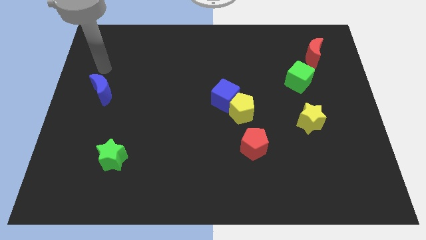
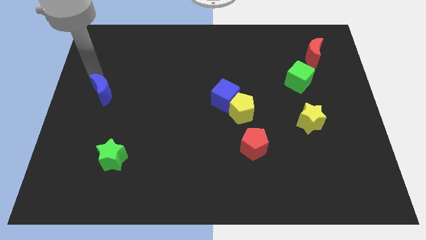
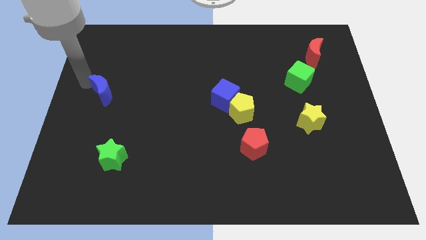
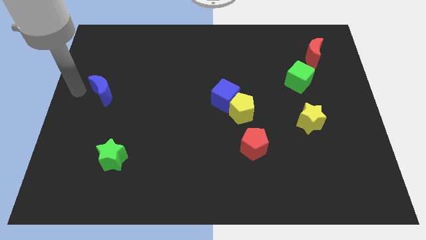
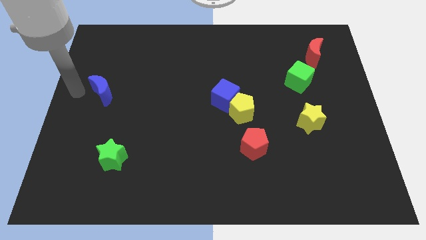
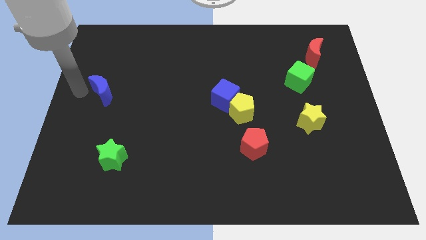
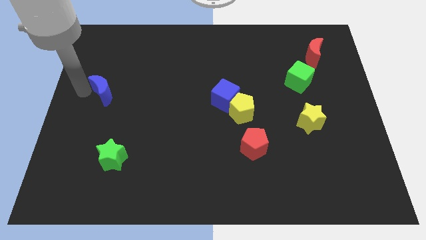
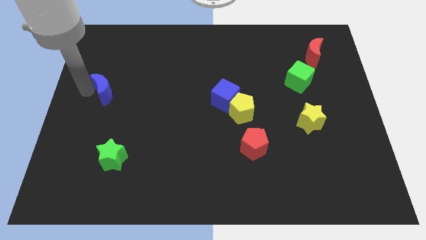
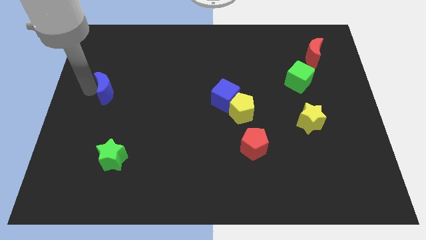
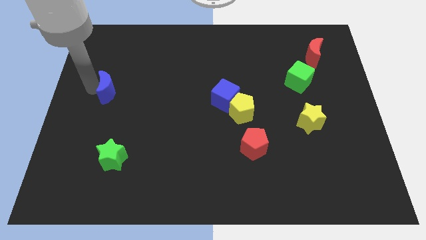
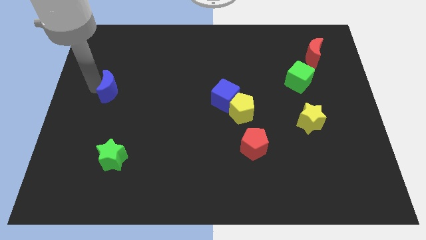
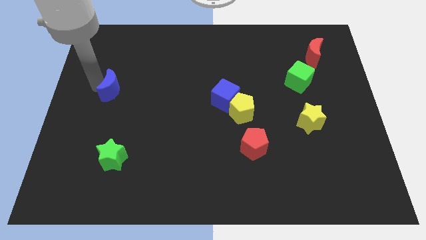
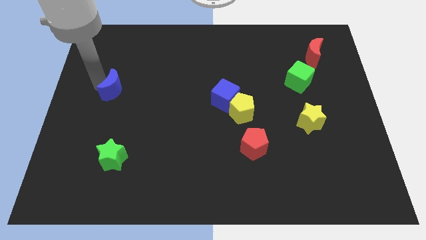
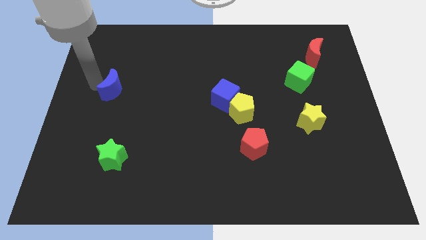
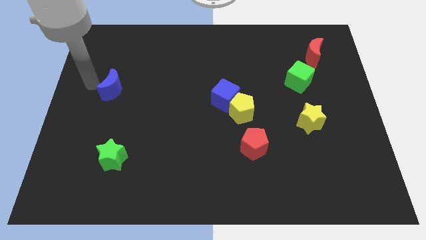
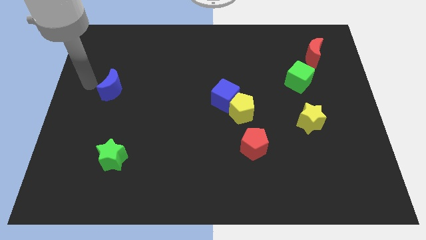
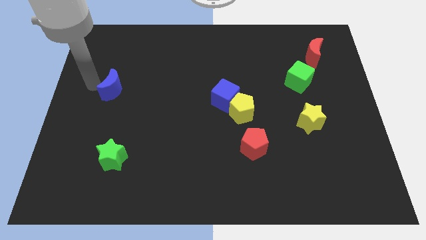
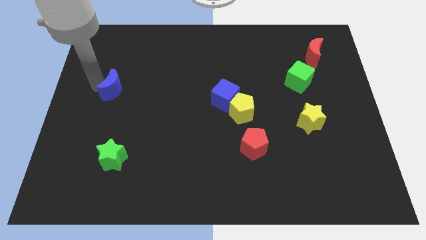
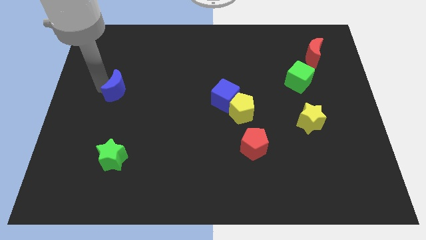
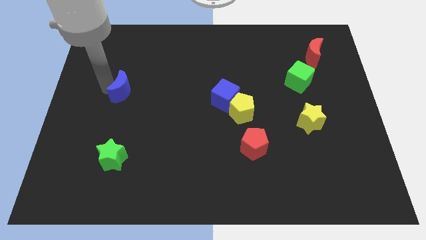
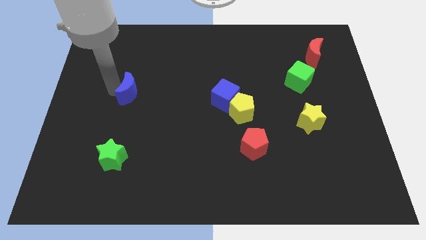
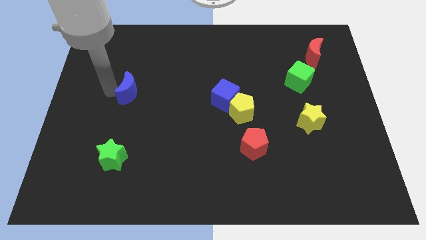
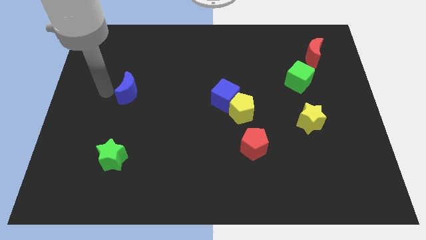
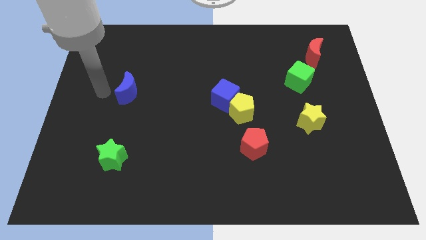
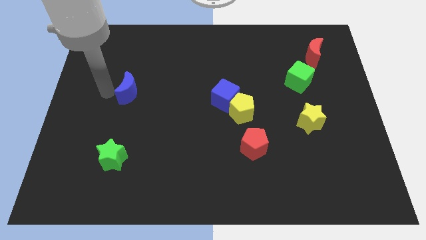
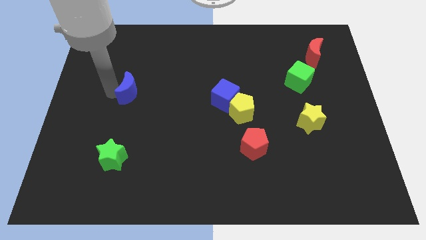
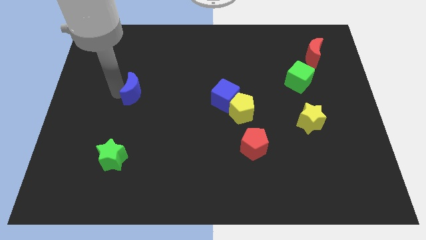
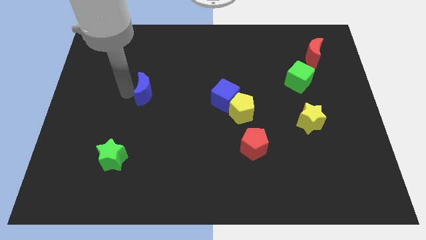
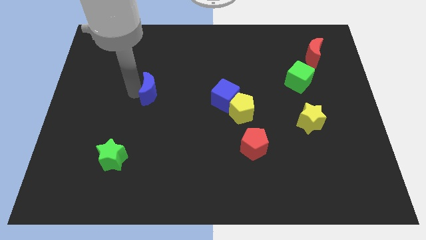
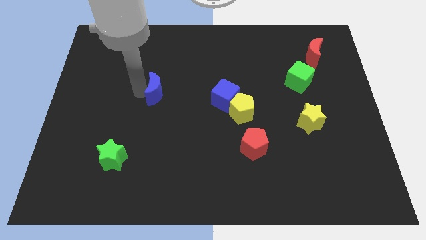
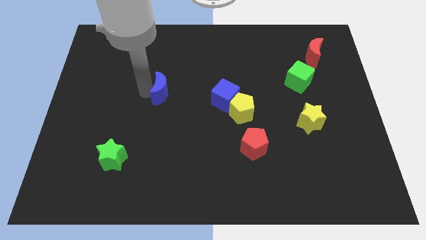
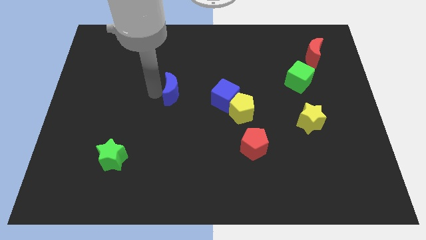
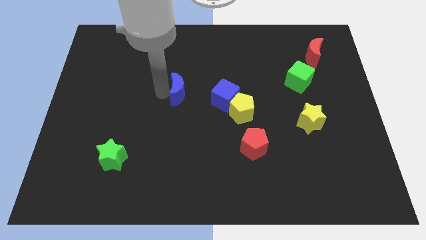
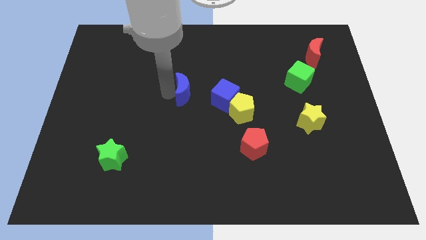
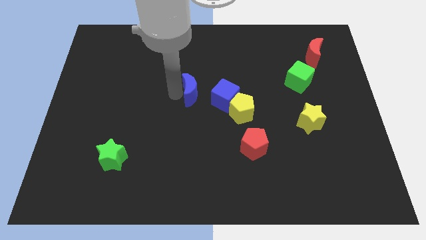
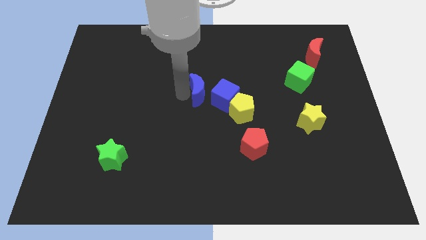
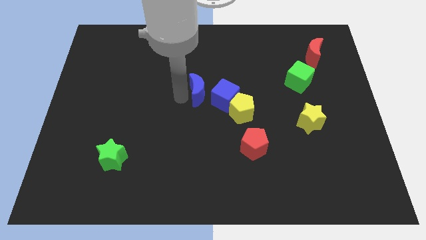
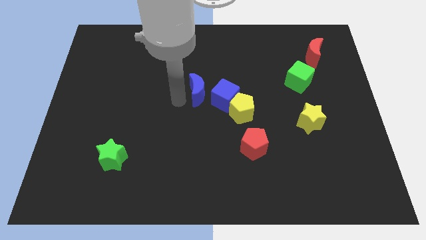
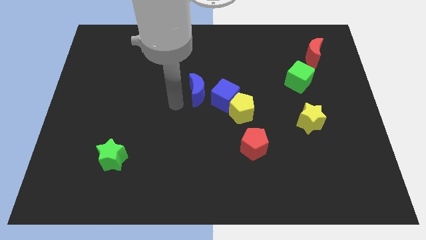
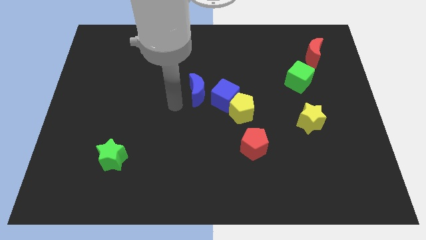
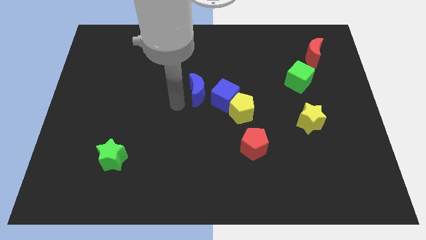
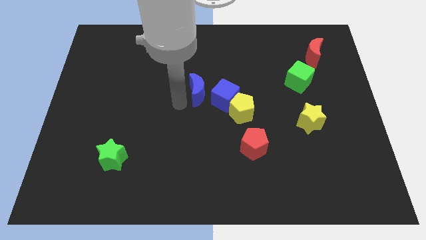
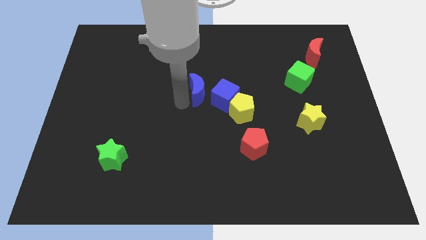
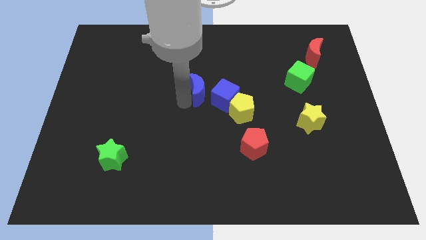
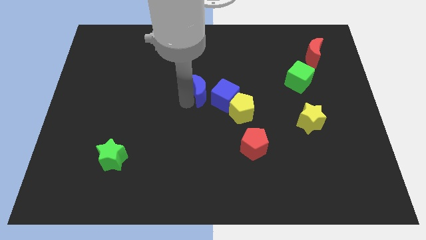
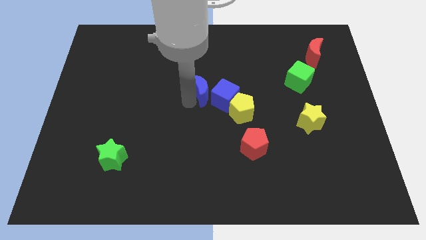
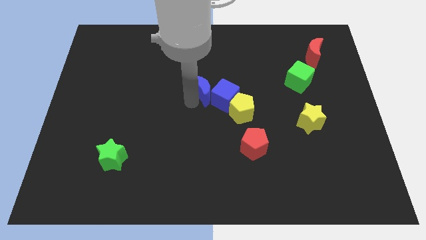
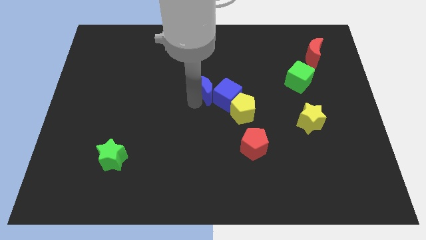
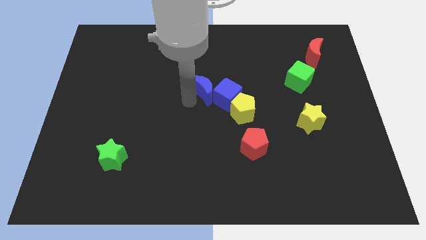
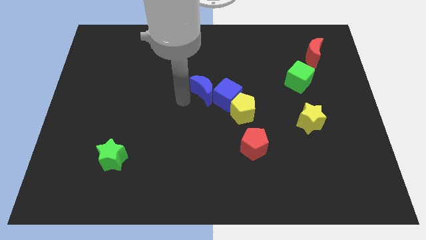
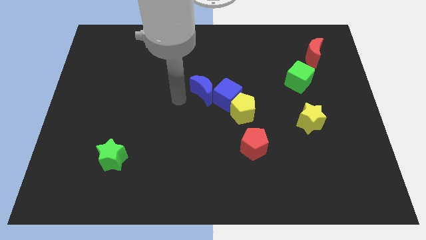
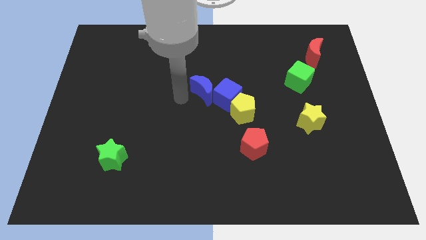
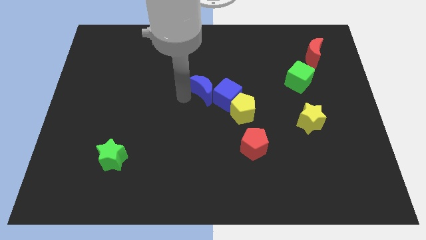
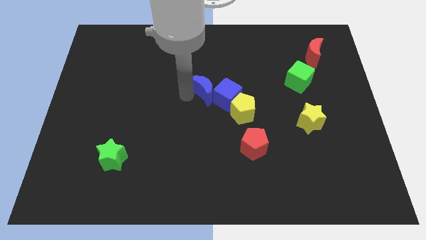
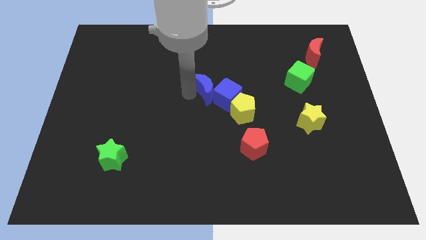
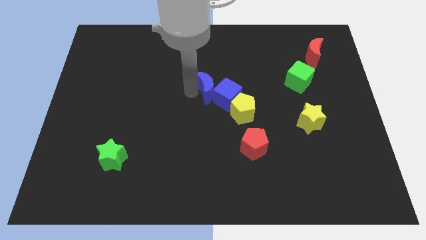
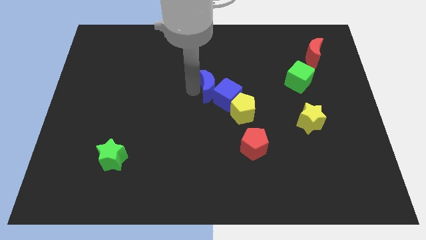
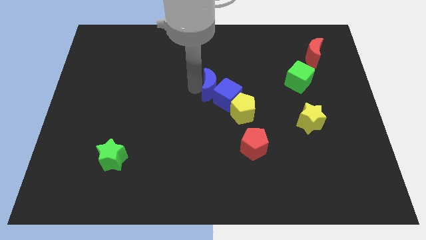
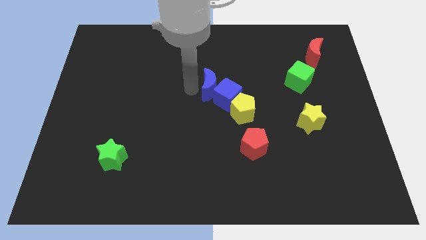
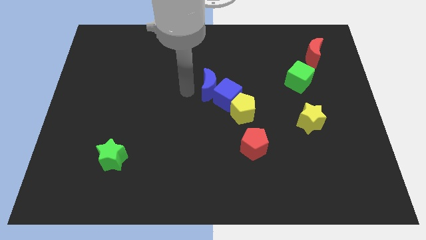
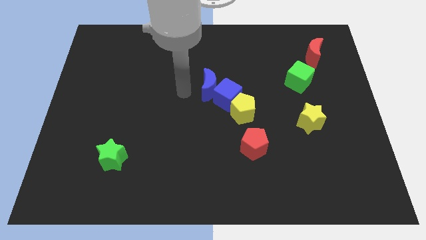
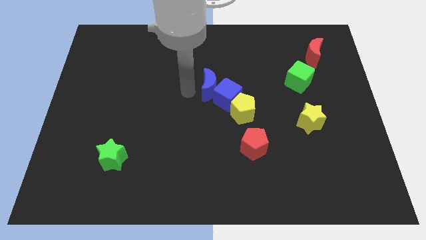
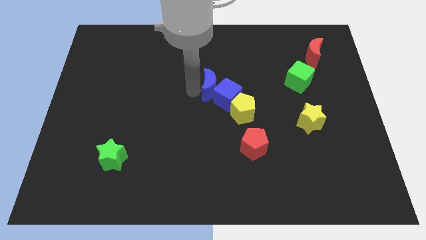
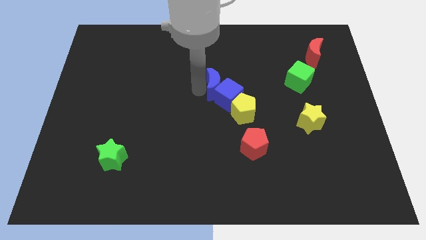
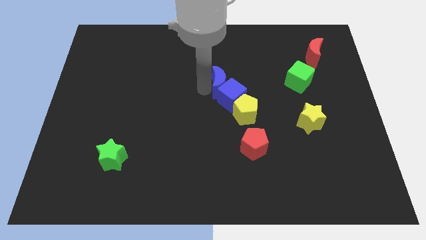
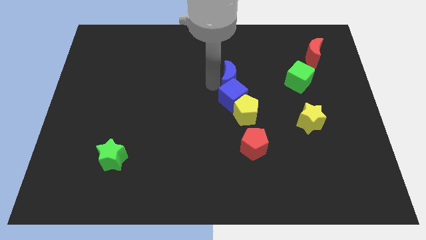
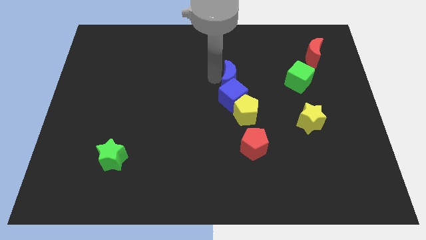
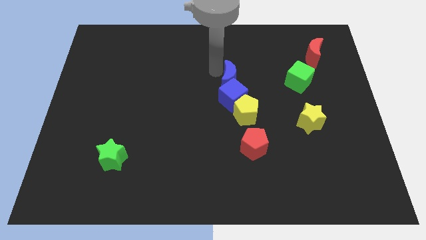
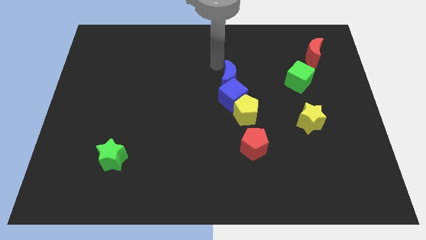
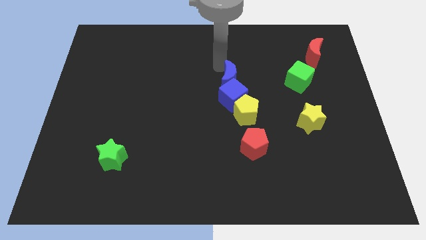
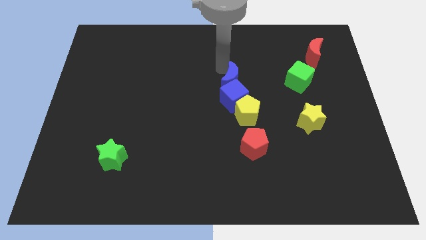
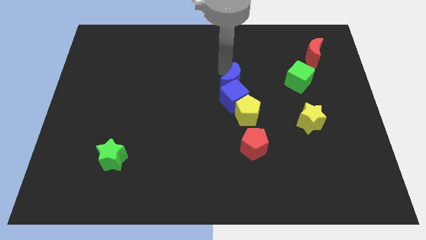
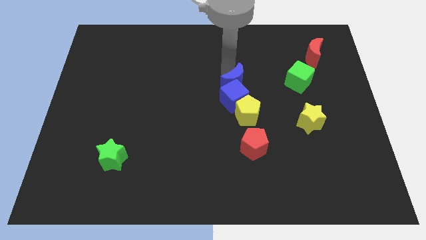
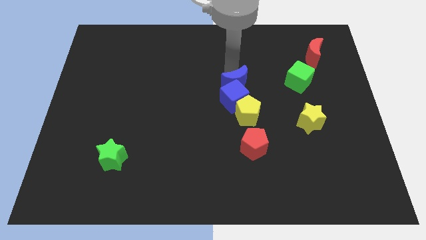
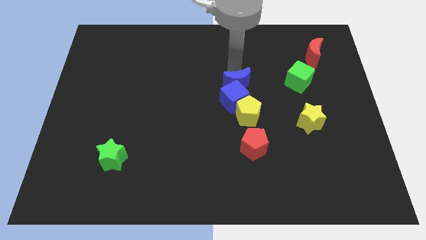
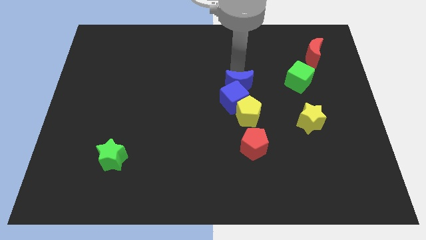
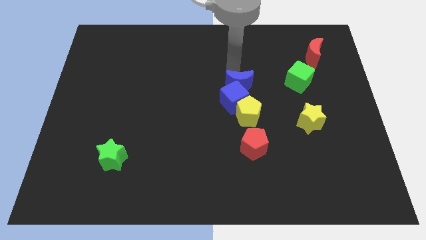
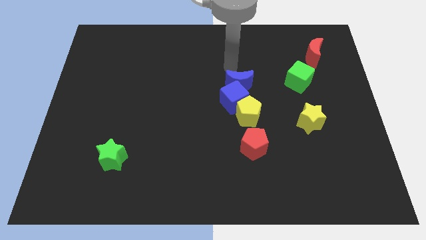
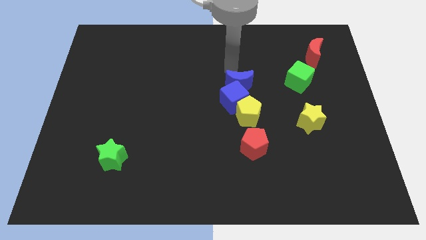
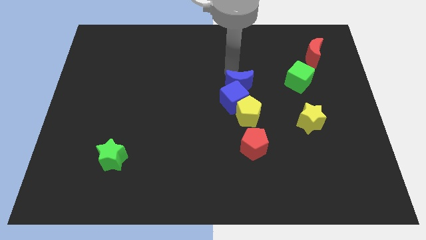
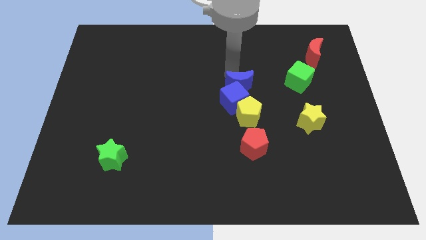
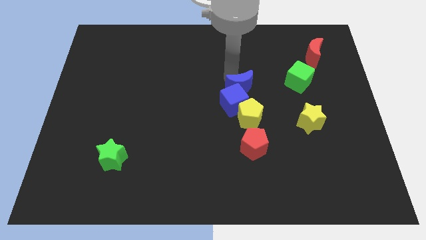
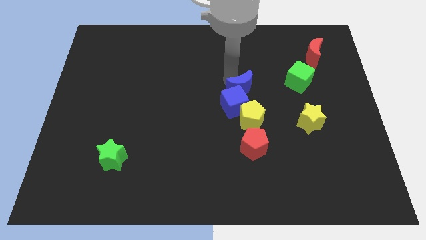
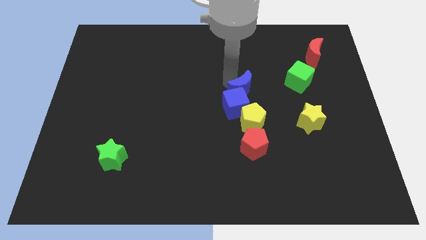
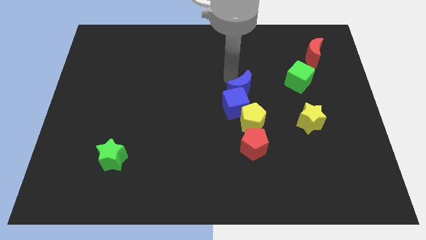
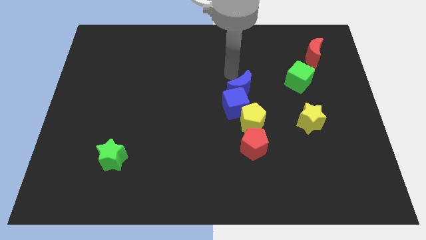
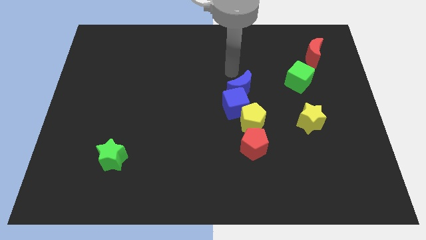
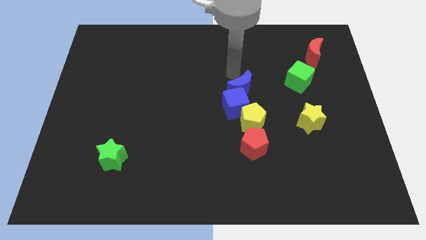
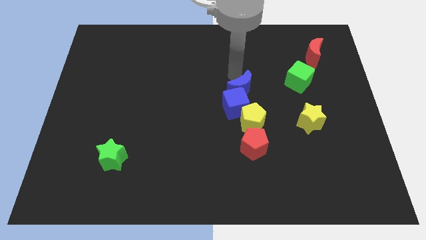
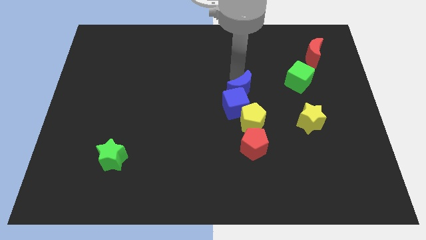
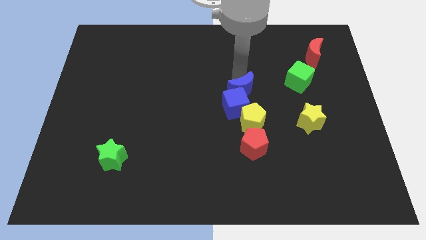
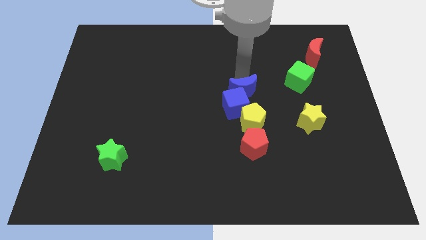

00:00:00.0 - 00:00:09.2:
put the blue moon above the red pentagon
